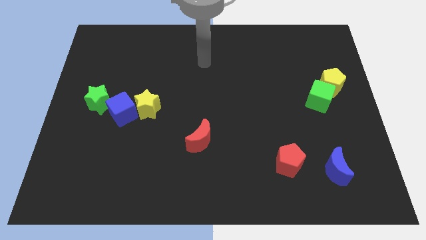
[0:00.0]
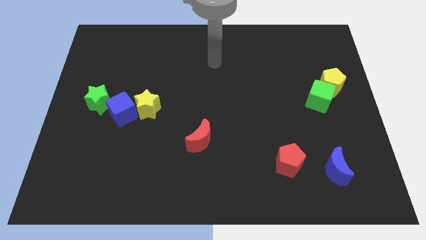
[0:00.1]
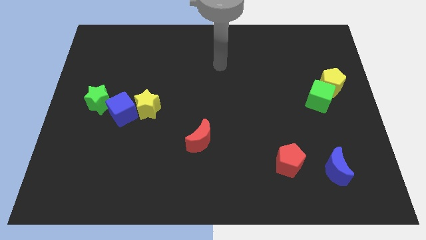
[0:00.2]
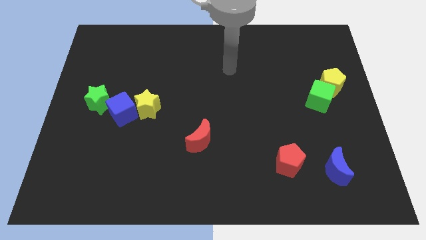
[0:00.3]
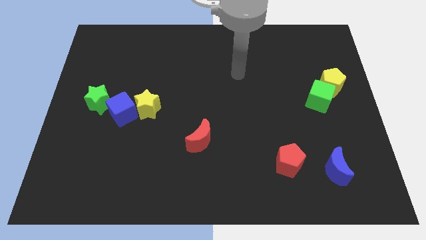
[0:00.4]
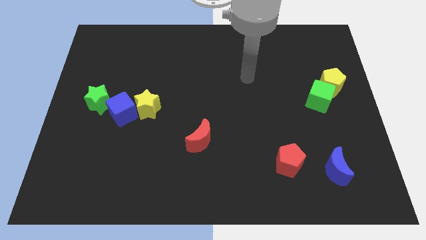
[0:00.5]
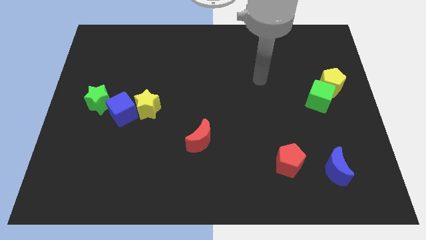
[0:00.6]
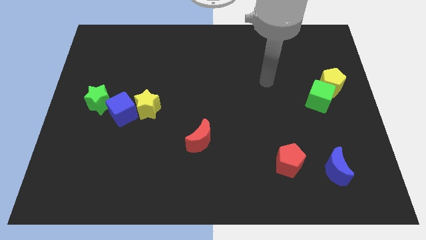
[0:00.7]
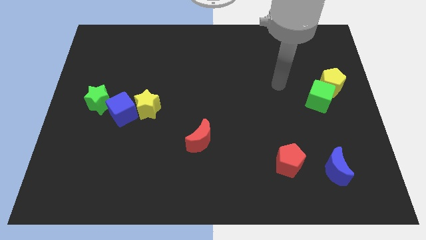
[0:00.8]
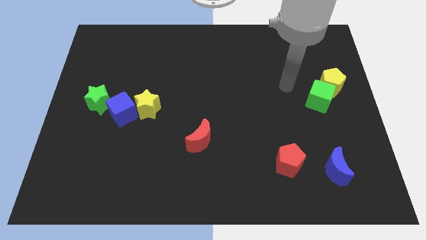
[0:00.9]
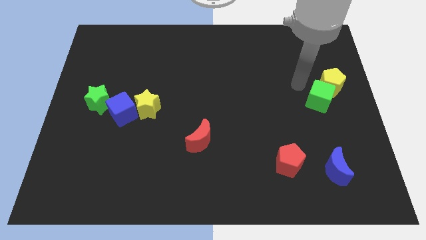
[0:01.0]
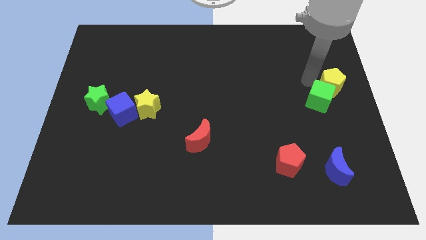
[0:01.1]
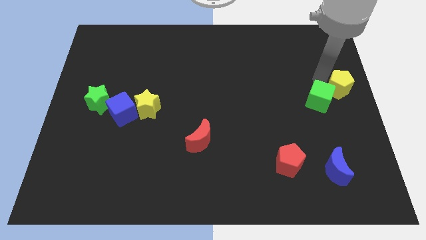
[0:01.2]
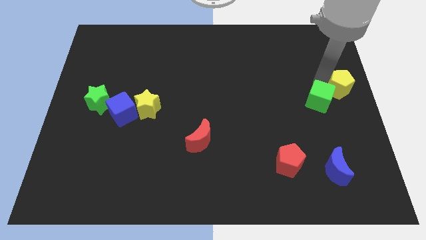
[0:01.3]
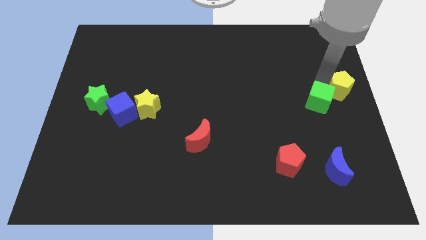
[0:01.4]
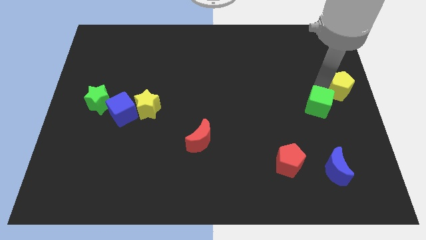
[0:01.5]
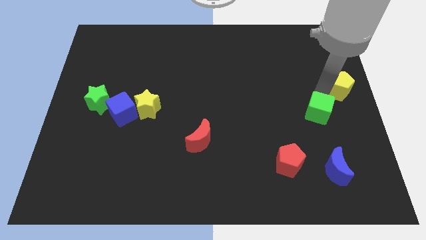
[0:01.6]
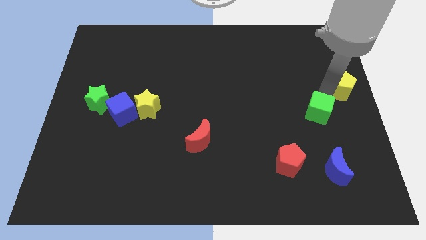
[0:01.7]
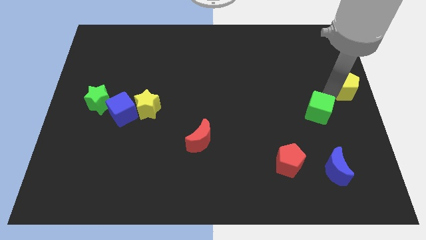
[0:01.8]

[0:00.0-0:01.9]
pull the green cube apart from the yellow pentagon

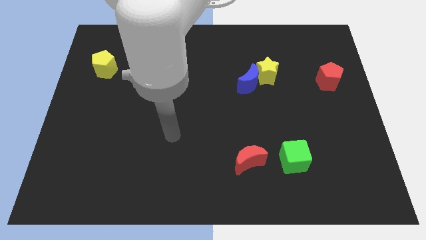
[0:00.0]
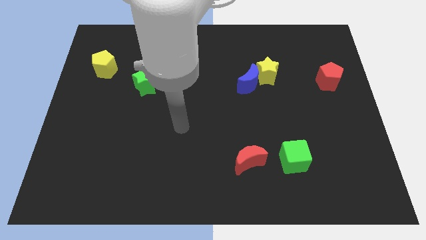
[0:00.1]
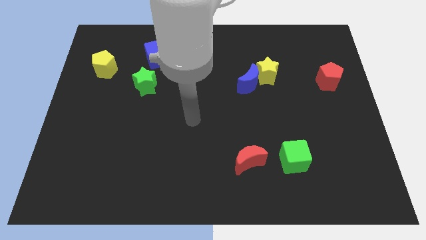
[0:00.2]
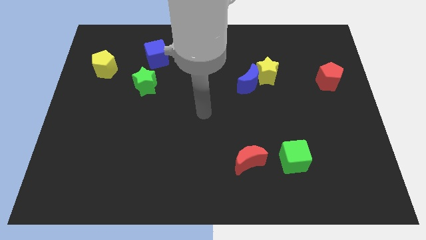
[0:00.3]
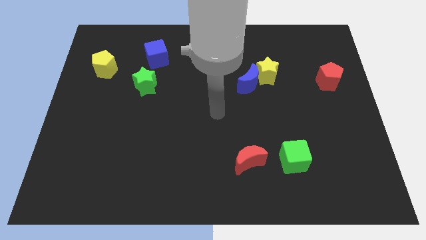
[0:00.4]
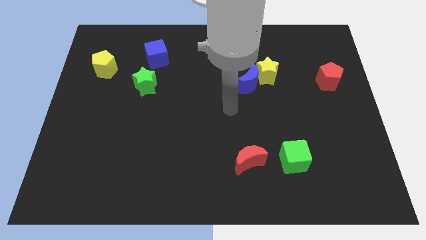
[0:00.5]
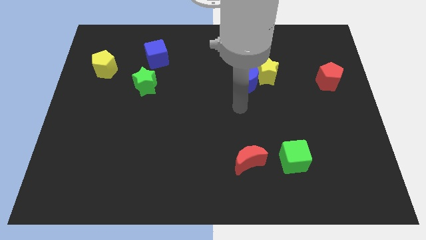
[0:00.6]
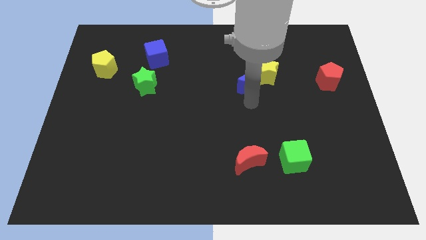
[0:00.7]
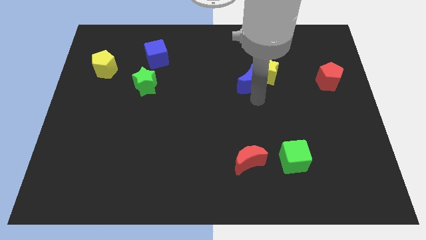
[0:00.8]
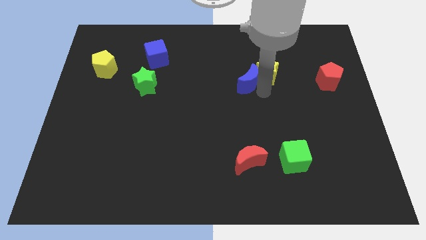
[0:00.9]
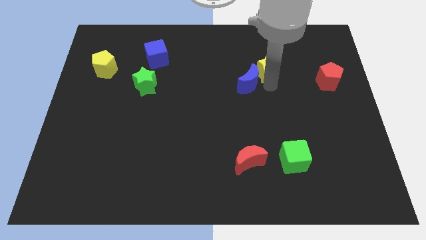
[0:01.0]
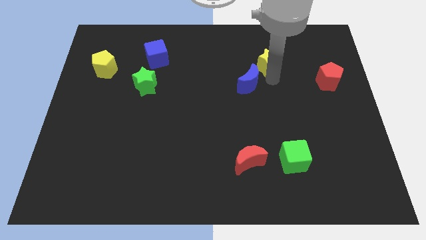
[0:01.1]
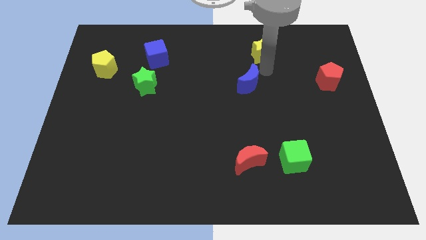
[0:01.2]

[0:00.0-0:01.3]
pull the blue moon apart from the yellow star

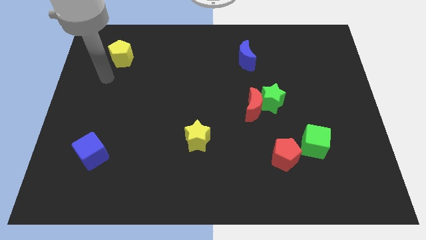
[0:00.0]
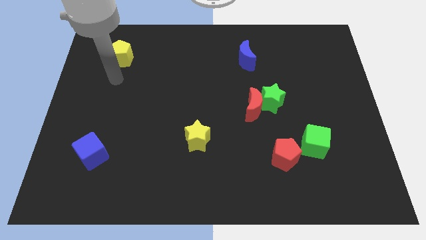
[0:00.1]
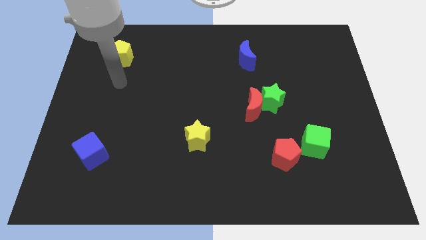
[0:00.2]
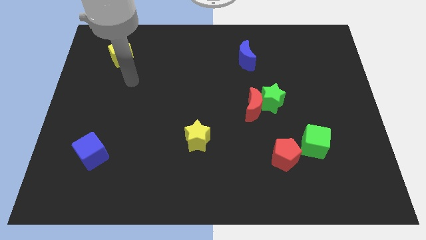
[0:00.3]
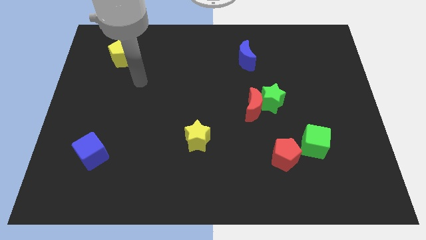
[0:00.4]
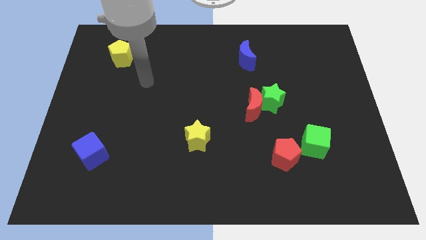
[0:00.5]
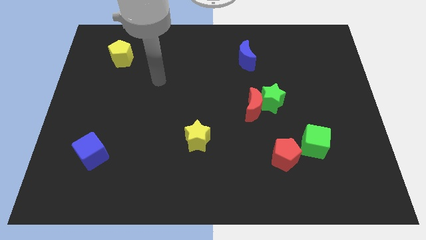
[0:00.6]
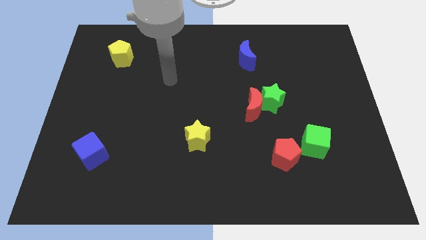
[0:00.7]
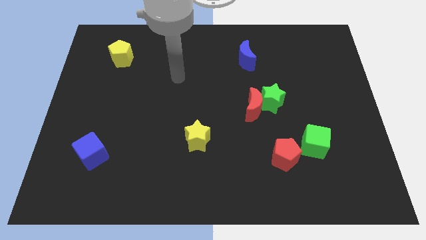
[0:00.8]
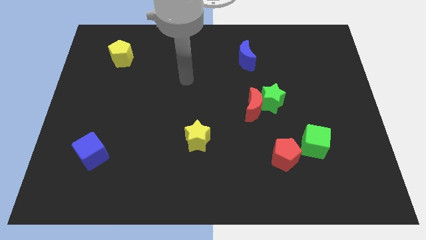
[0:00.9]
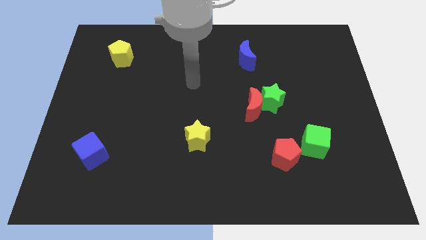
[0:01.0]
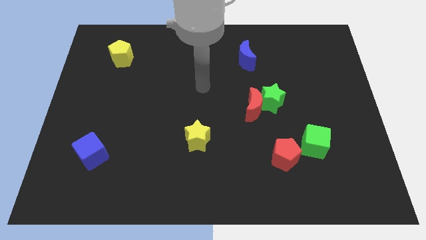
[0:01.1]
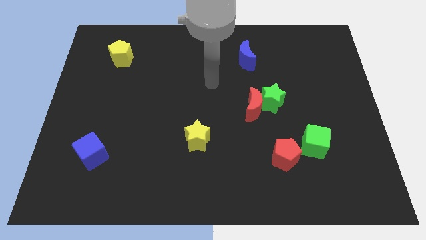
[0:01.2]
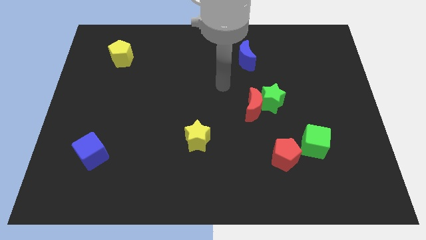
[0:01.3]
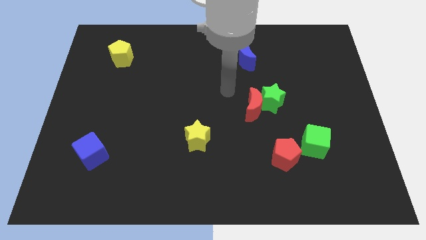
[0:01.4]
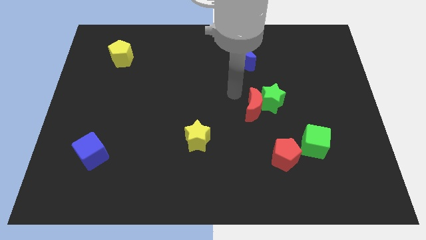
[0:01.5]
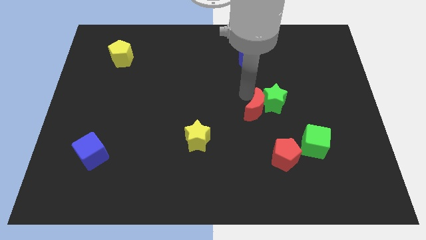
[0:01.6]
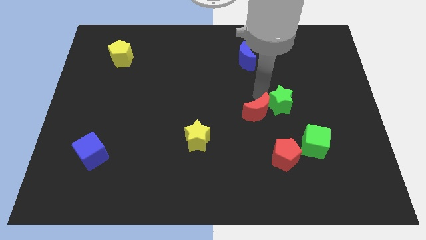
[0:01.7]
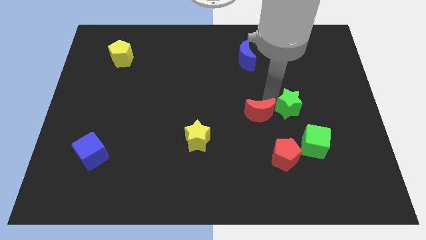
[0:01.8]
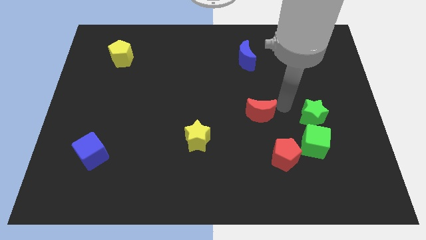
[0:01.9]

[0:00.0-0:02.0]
pull the red moon apart from the green star

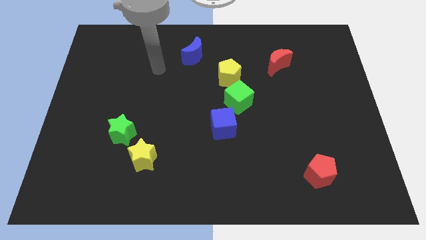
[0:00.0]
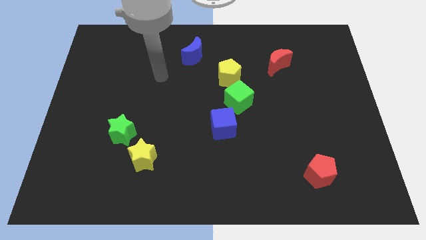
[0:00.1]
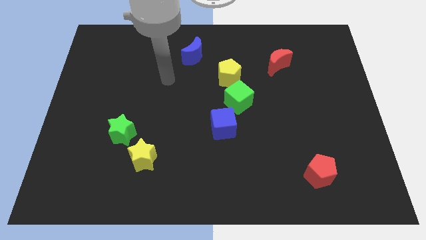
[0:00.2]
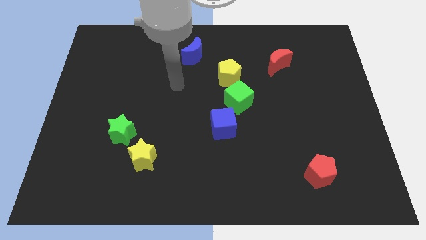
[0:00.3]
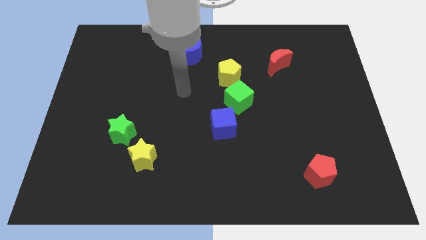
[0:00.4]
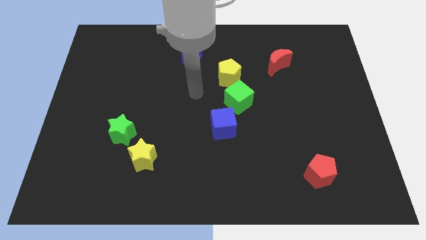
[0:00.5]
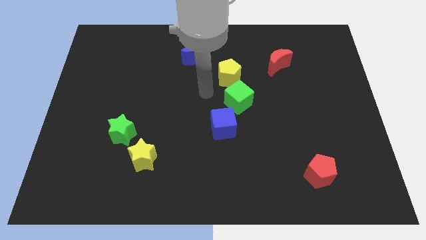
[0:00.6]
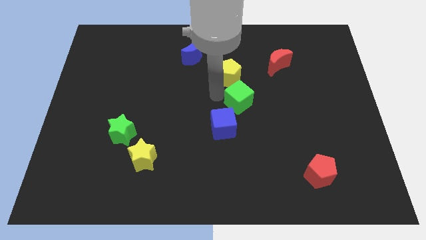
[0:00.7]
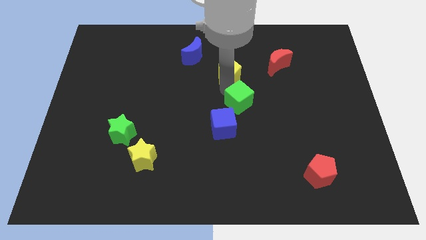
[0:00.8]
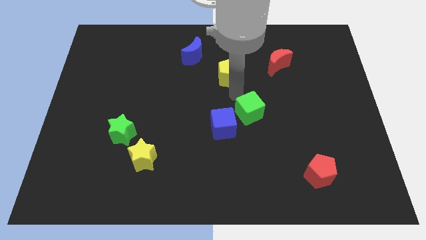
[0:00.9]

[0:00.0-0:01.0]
pull the yellow pentagon apart from the green cube

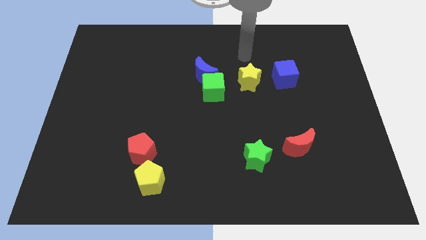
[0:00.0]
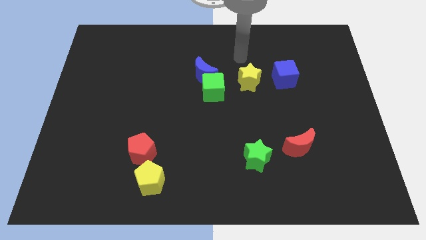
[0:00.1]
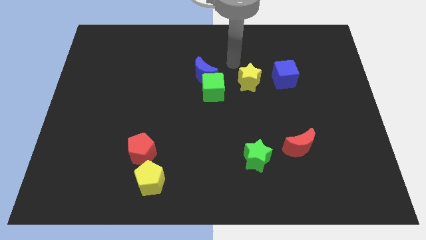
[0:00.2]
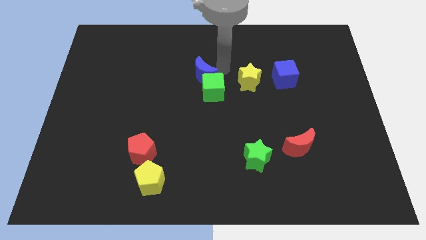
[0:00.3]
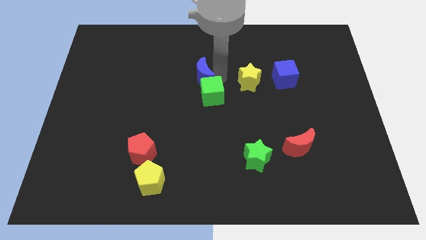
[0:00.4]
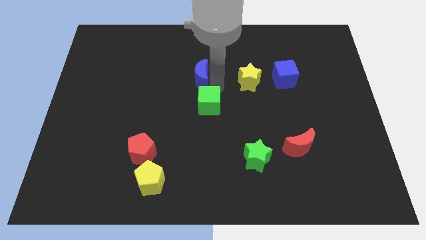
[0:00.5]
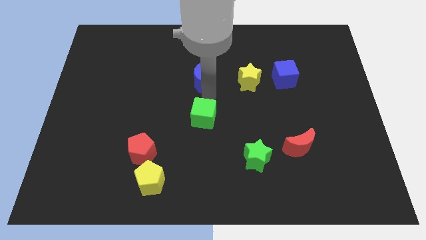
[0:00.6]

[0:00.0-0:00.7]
move the blue moon away from the green cube

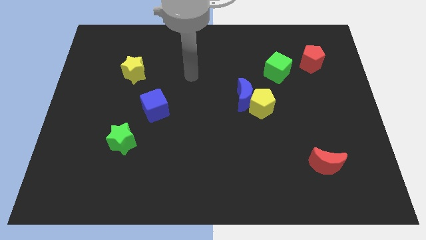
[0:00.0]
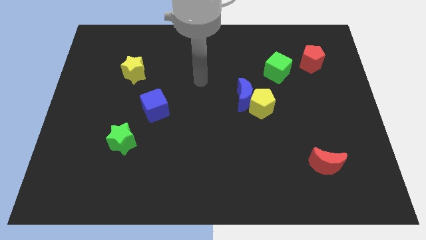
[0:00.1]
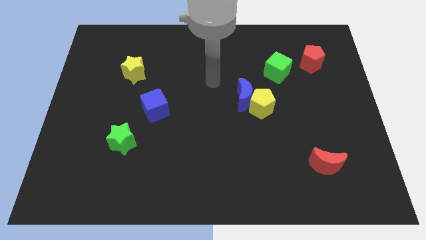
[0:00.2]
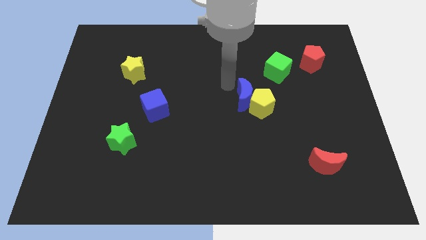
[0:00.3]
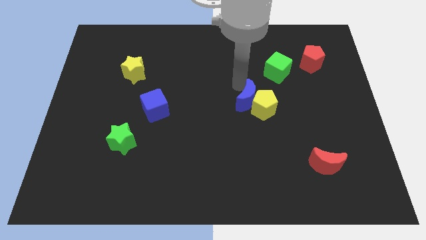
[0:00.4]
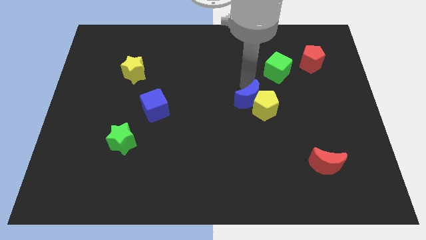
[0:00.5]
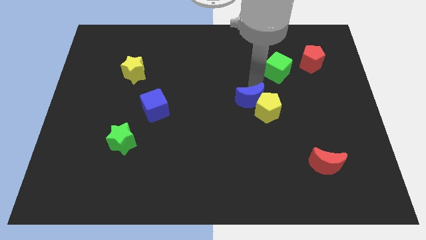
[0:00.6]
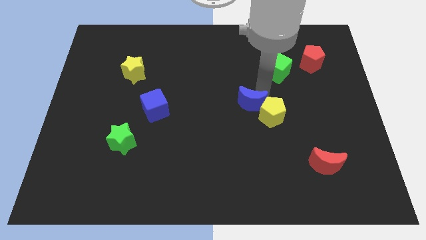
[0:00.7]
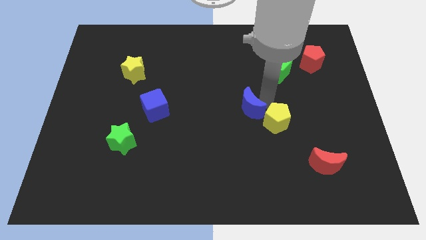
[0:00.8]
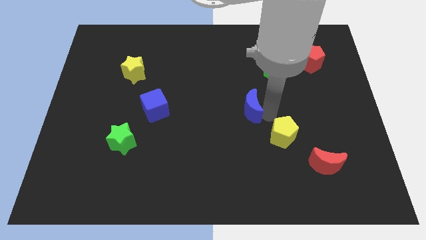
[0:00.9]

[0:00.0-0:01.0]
move the blue moon away from the yellow pentagon

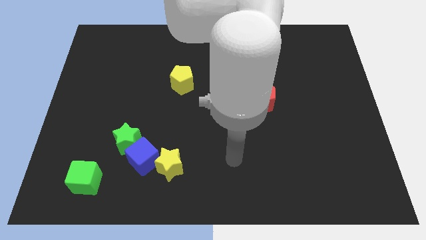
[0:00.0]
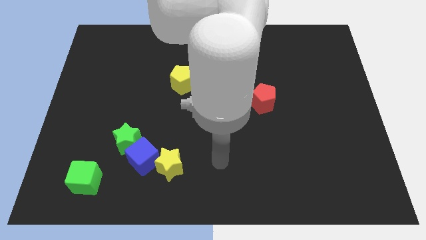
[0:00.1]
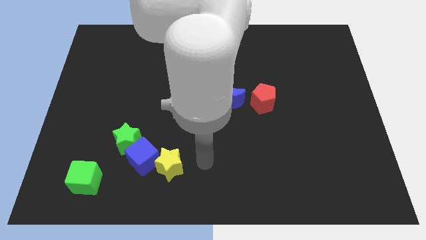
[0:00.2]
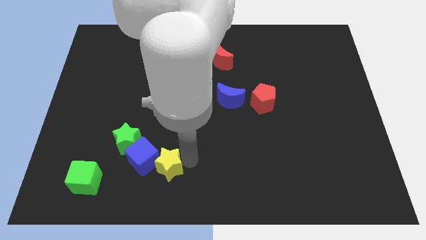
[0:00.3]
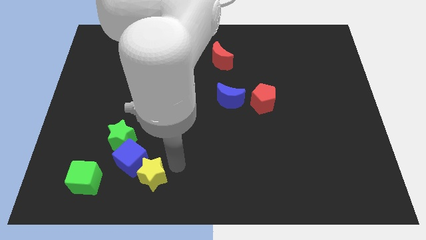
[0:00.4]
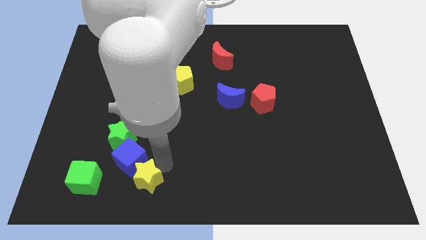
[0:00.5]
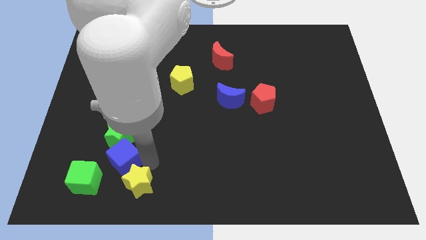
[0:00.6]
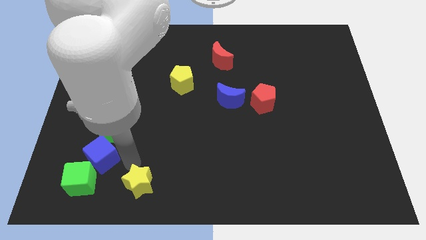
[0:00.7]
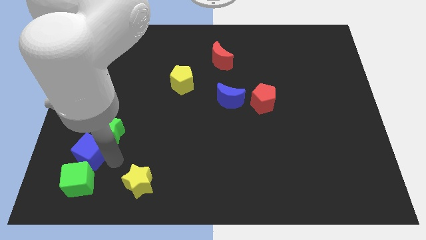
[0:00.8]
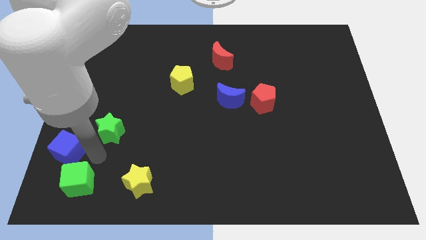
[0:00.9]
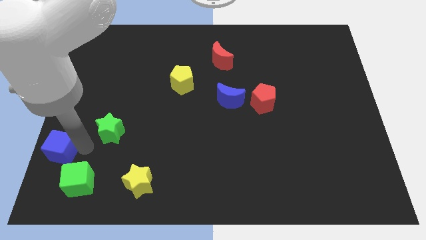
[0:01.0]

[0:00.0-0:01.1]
pull the green star apart from the blue cube

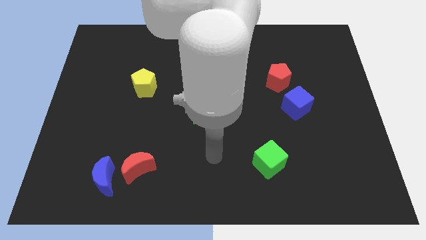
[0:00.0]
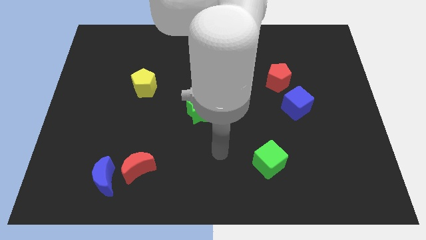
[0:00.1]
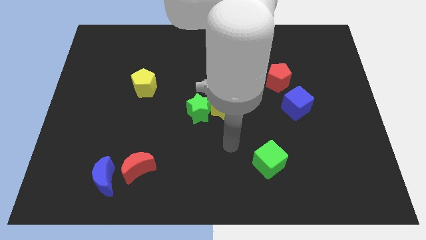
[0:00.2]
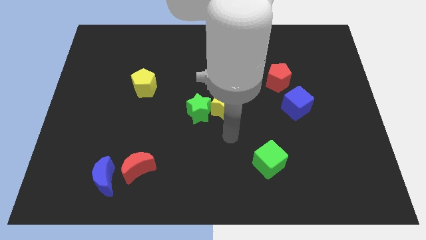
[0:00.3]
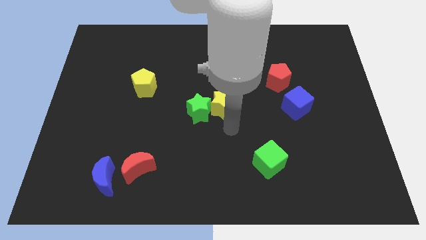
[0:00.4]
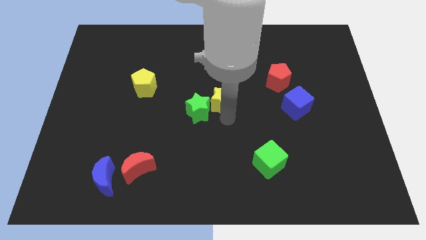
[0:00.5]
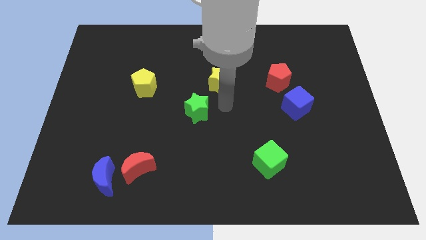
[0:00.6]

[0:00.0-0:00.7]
move the green star away from the yellow star
